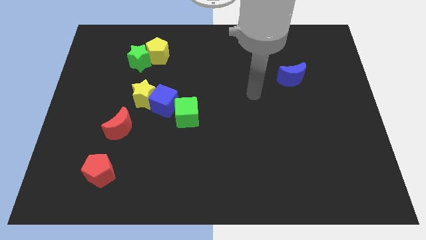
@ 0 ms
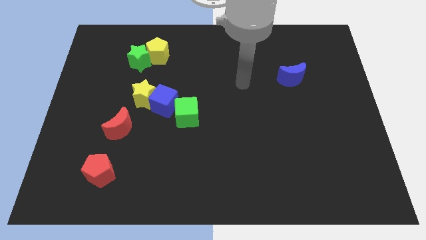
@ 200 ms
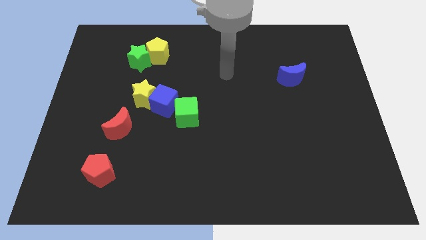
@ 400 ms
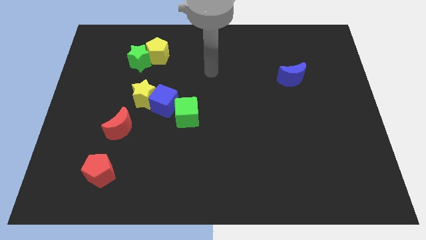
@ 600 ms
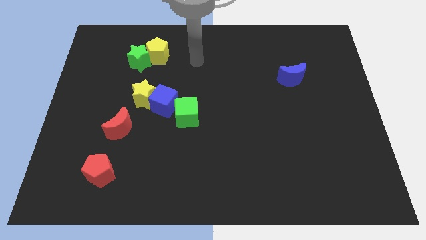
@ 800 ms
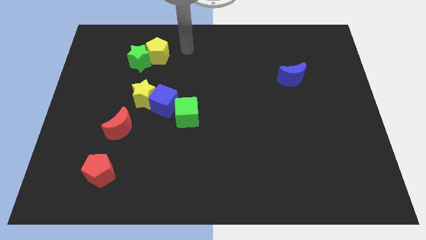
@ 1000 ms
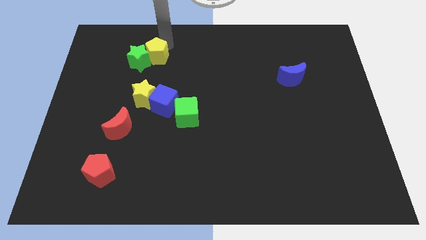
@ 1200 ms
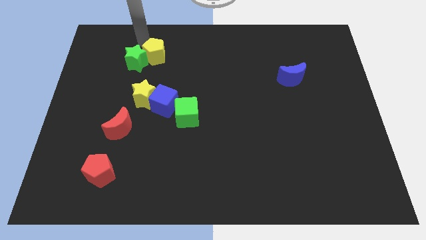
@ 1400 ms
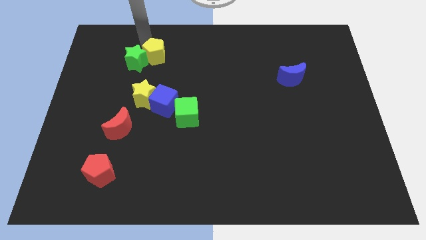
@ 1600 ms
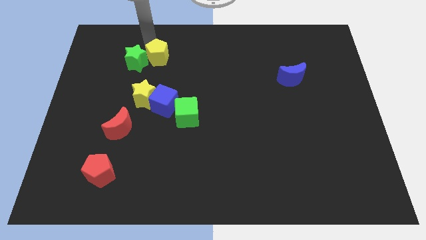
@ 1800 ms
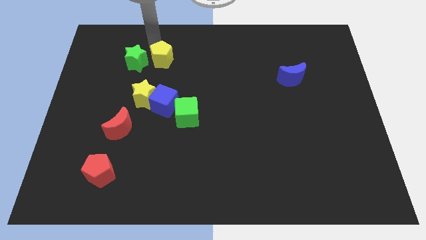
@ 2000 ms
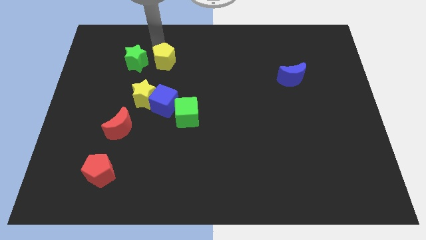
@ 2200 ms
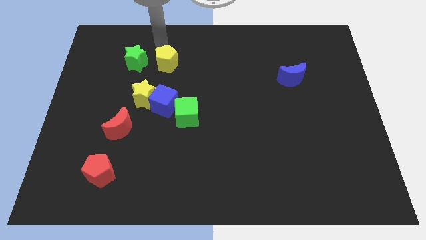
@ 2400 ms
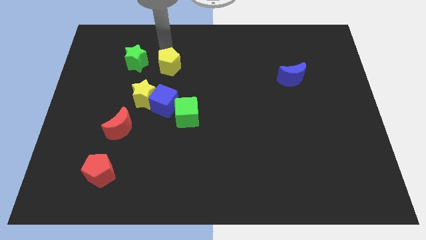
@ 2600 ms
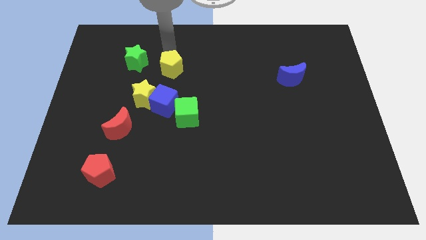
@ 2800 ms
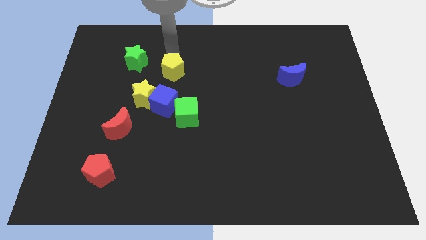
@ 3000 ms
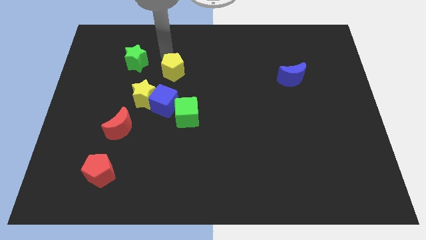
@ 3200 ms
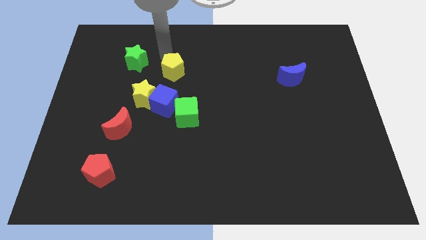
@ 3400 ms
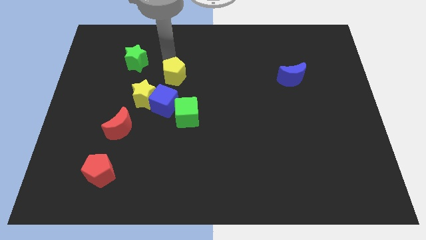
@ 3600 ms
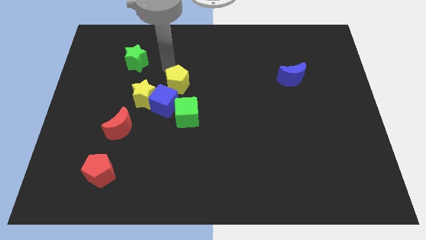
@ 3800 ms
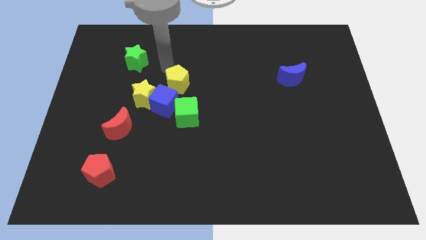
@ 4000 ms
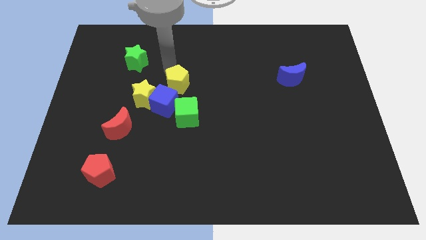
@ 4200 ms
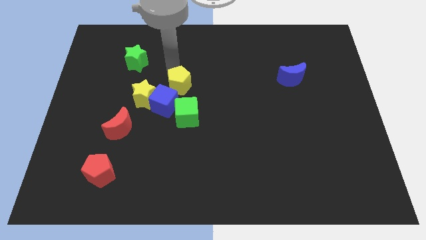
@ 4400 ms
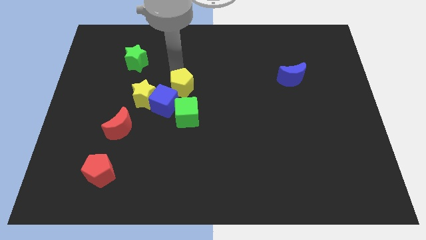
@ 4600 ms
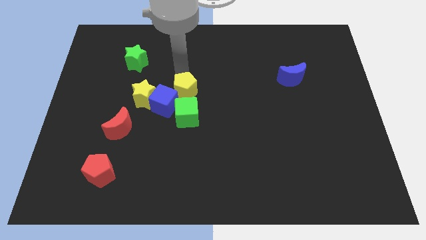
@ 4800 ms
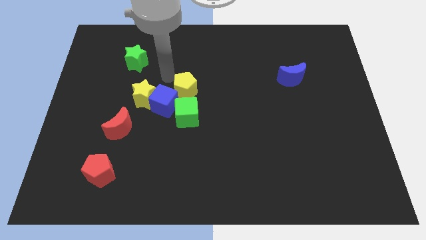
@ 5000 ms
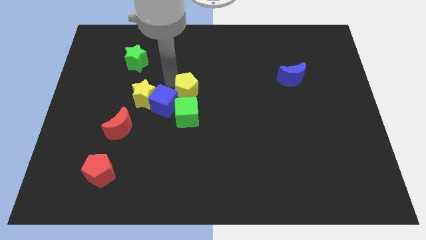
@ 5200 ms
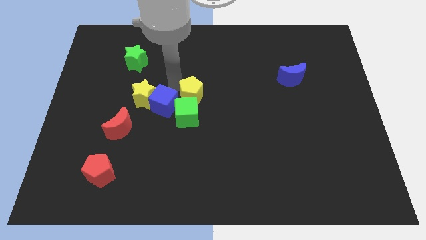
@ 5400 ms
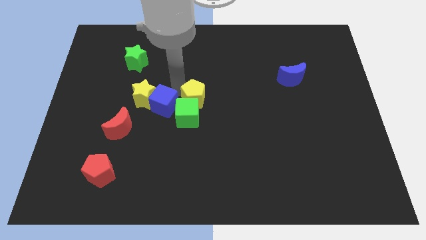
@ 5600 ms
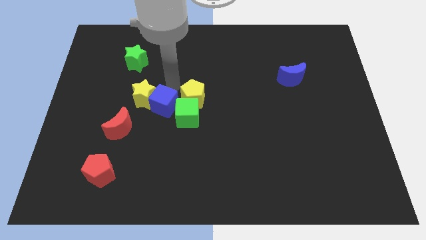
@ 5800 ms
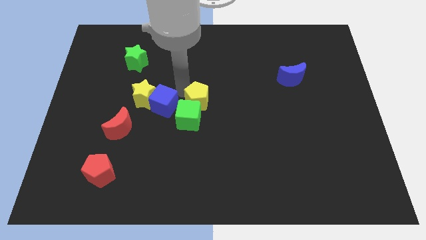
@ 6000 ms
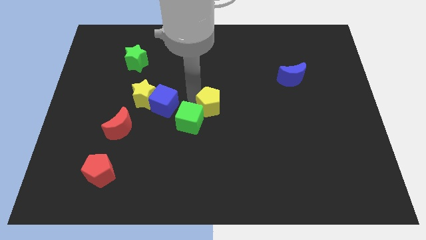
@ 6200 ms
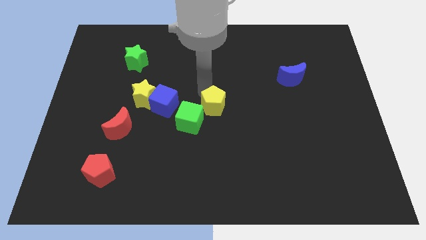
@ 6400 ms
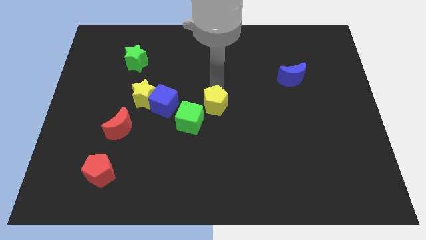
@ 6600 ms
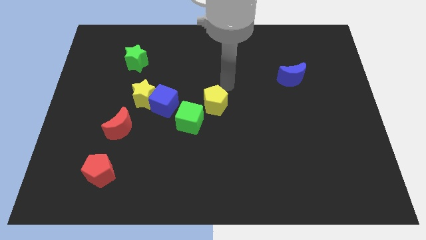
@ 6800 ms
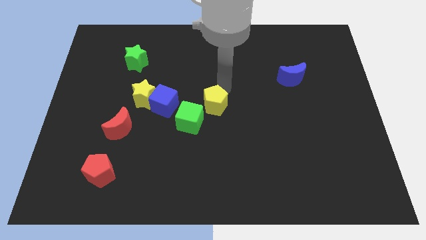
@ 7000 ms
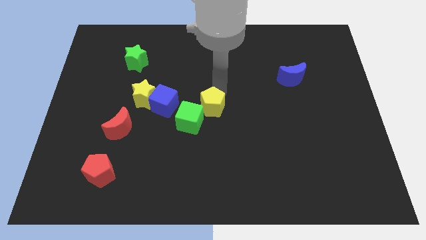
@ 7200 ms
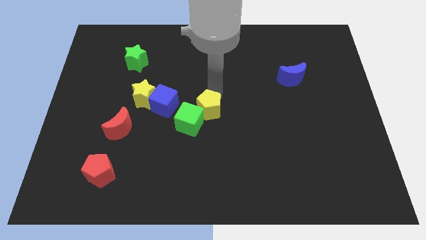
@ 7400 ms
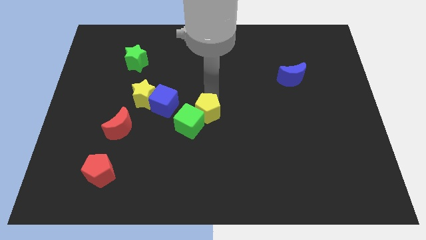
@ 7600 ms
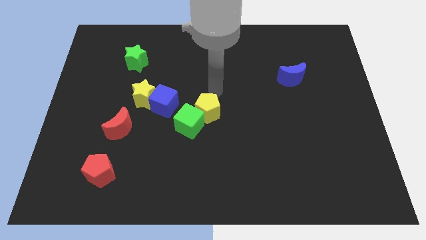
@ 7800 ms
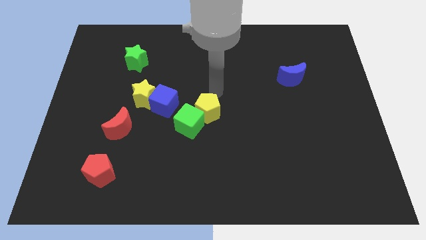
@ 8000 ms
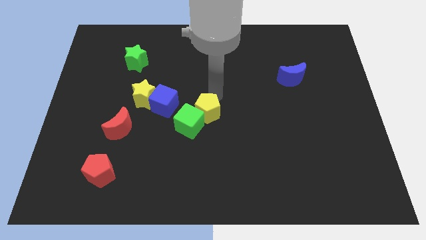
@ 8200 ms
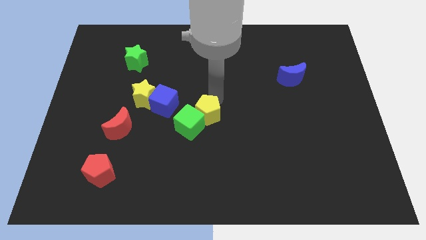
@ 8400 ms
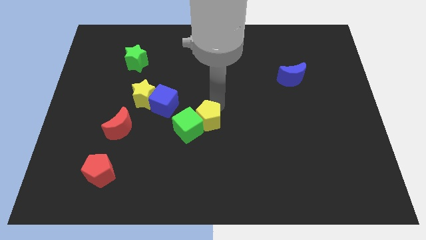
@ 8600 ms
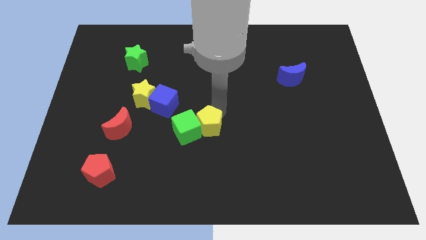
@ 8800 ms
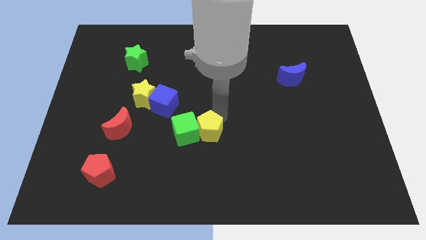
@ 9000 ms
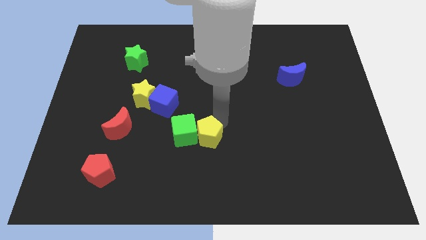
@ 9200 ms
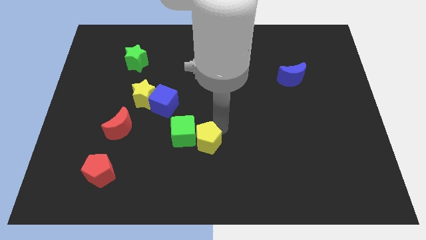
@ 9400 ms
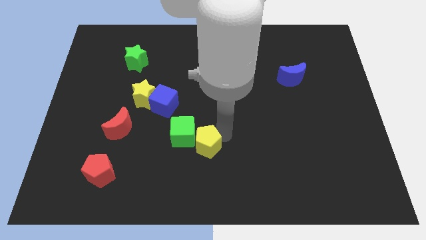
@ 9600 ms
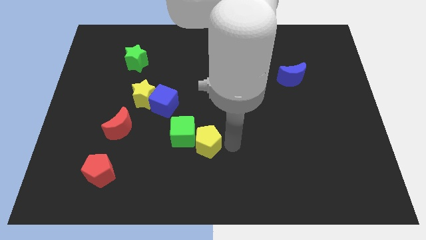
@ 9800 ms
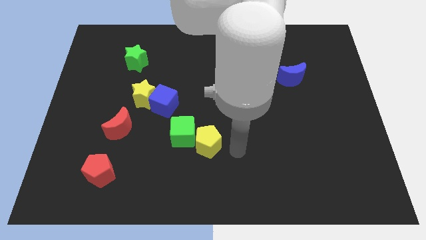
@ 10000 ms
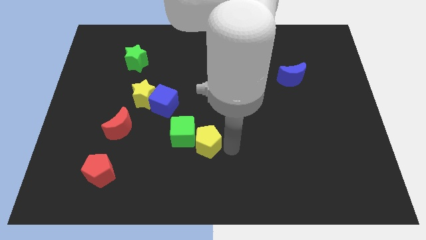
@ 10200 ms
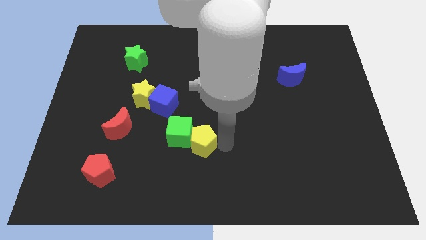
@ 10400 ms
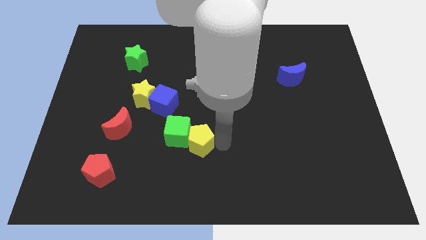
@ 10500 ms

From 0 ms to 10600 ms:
move the yellow pentagon downwards

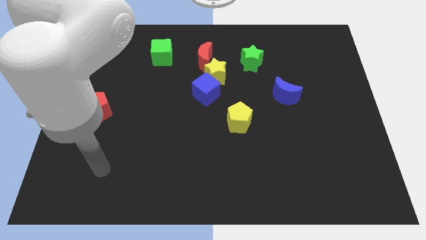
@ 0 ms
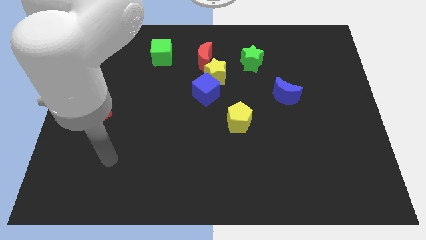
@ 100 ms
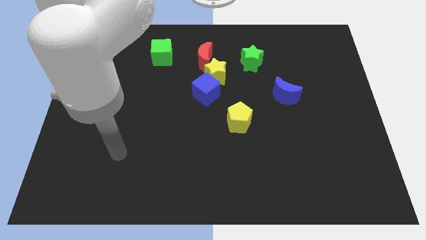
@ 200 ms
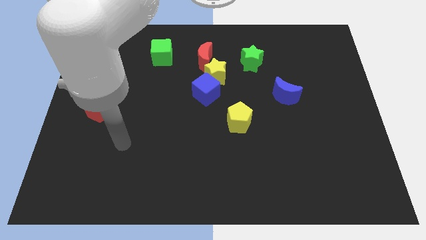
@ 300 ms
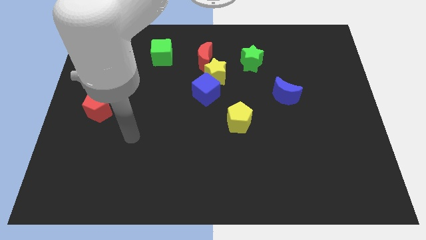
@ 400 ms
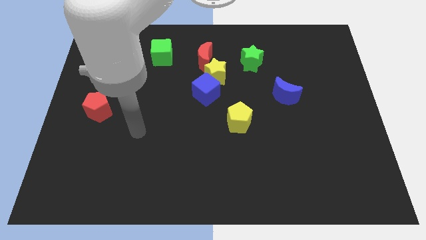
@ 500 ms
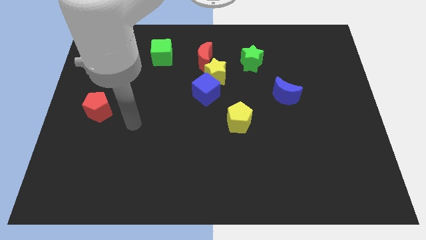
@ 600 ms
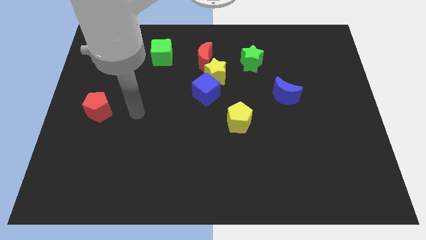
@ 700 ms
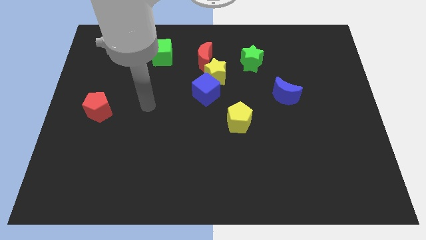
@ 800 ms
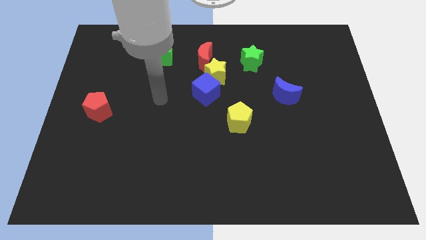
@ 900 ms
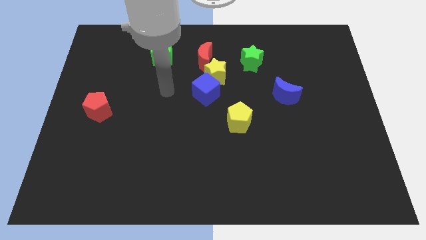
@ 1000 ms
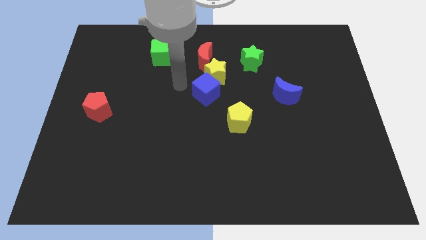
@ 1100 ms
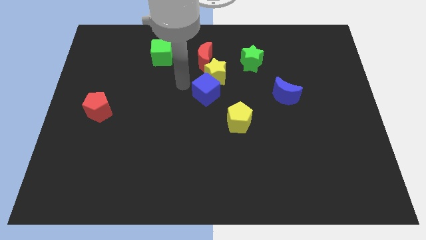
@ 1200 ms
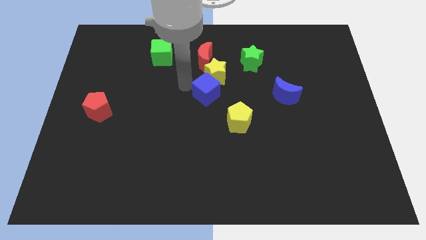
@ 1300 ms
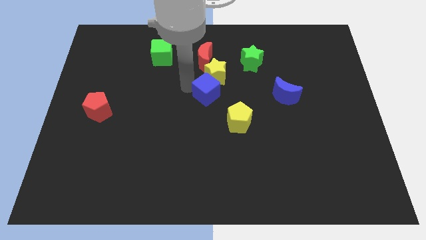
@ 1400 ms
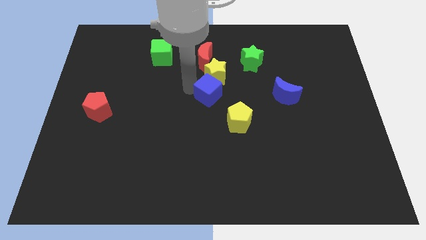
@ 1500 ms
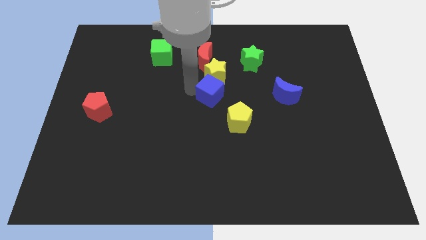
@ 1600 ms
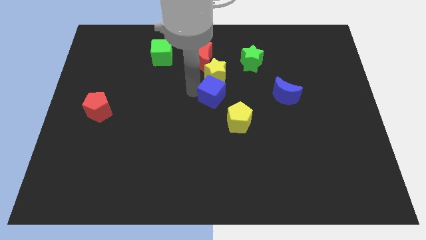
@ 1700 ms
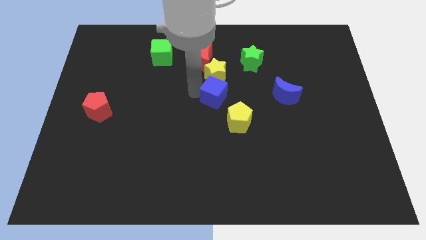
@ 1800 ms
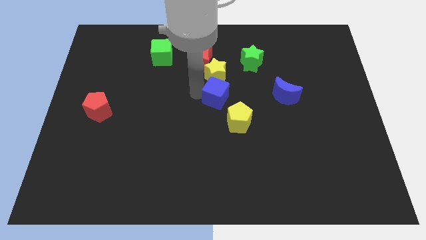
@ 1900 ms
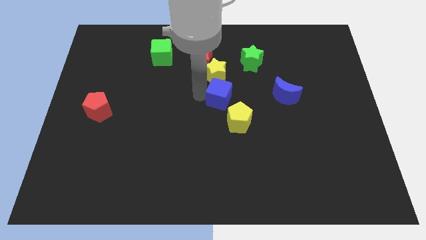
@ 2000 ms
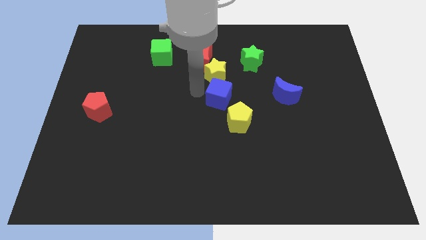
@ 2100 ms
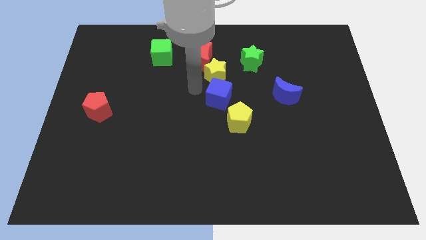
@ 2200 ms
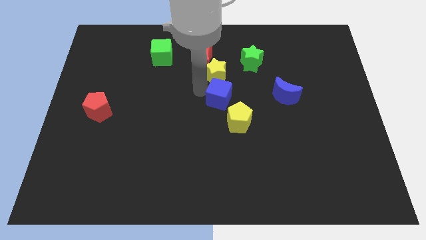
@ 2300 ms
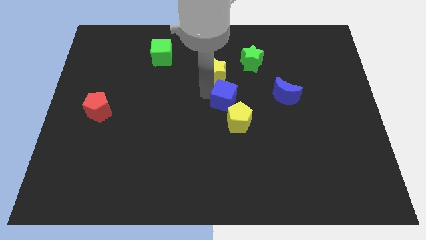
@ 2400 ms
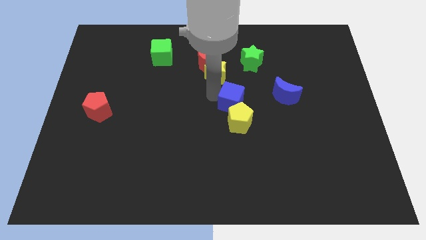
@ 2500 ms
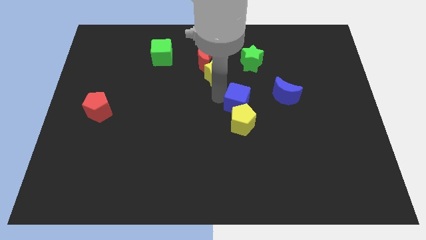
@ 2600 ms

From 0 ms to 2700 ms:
push the blue cube down and right diagonally a little

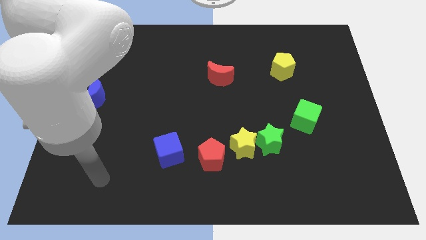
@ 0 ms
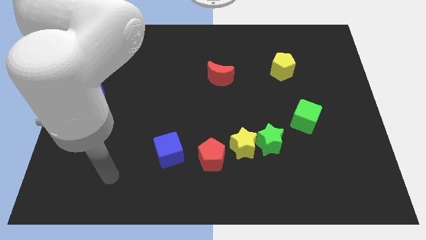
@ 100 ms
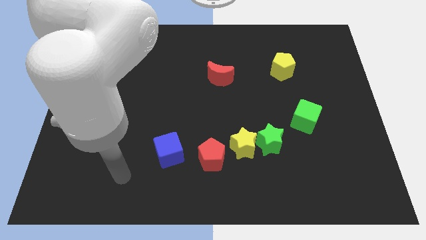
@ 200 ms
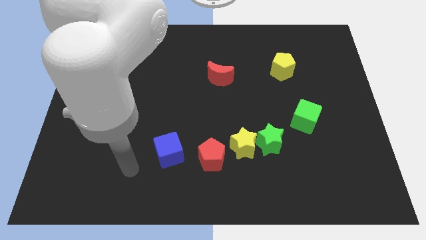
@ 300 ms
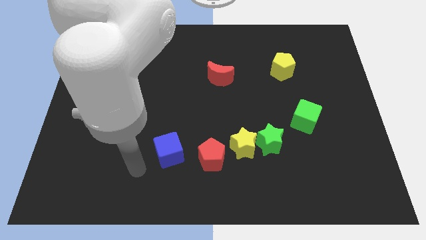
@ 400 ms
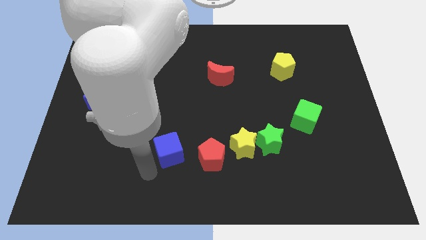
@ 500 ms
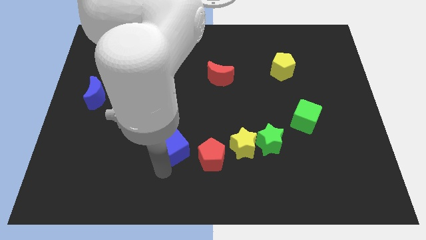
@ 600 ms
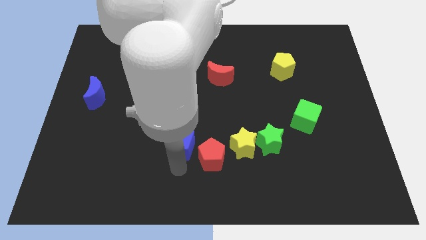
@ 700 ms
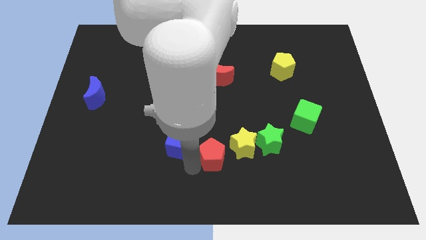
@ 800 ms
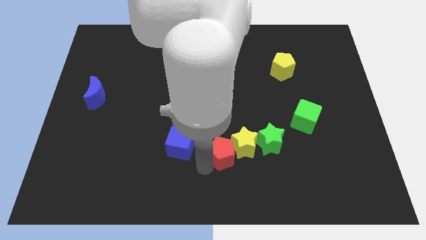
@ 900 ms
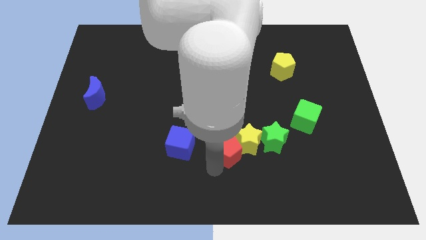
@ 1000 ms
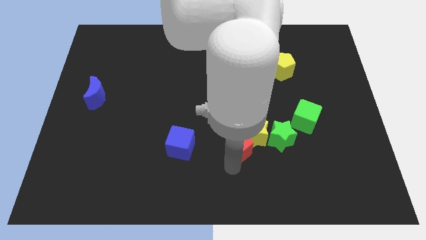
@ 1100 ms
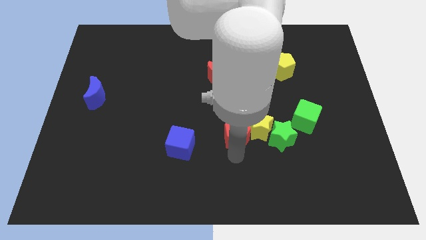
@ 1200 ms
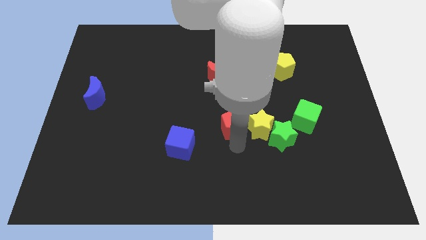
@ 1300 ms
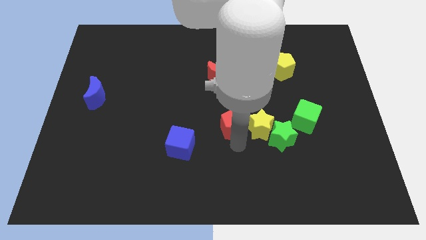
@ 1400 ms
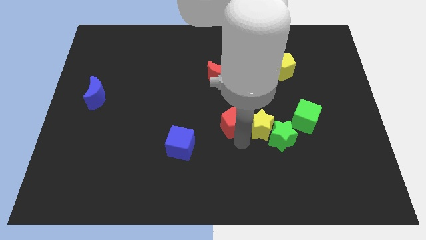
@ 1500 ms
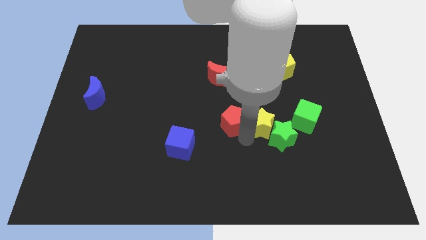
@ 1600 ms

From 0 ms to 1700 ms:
slightly push the yellow star up and to the right
